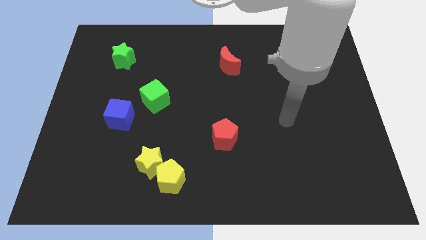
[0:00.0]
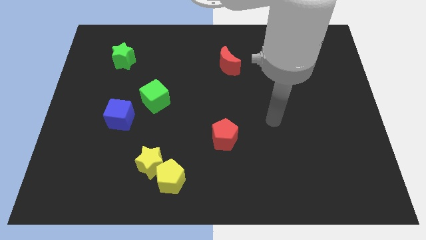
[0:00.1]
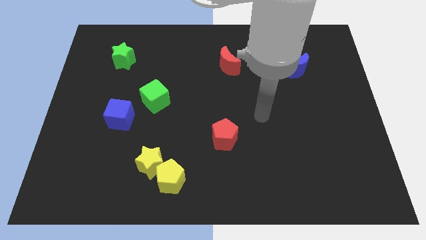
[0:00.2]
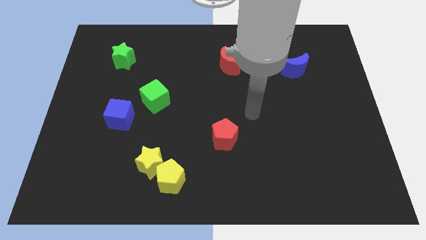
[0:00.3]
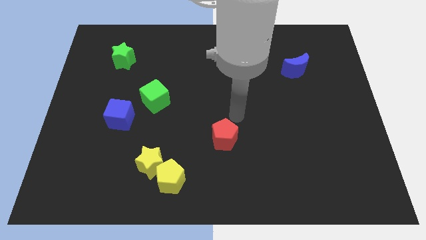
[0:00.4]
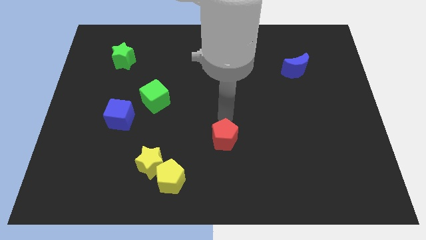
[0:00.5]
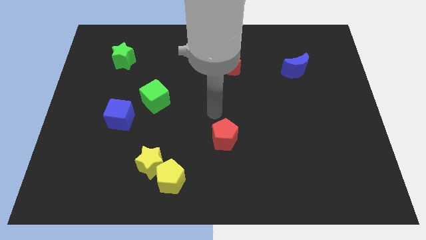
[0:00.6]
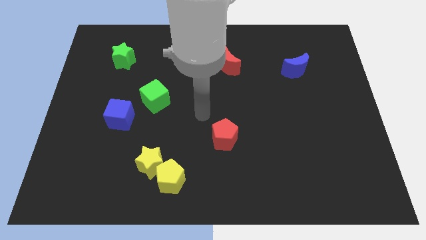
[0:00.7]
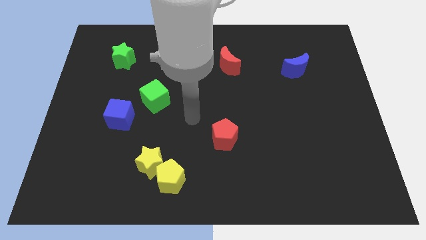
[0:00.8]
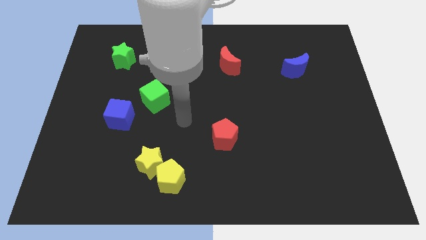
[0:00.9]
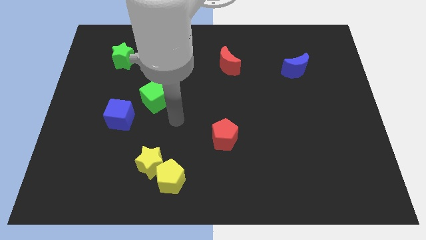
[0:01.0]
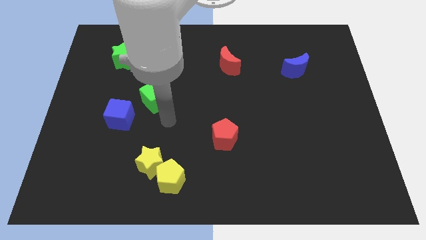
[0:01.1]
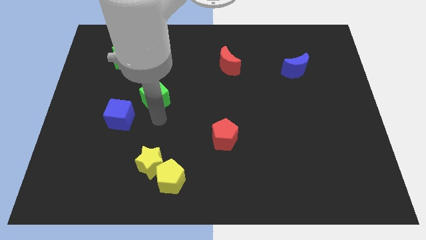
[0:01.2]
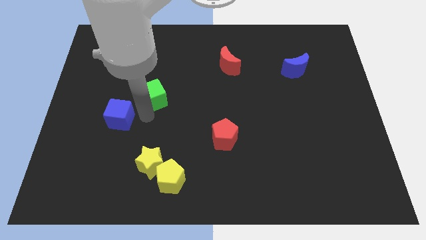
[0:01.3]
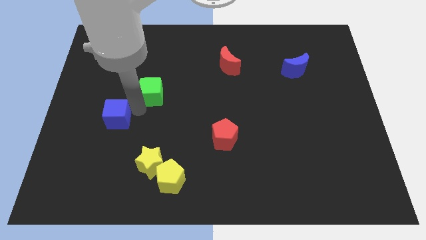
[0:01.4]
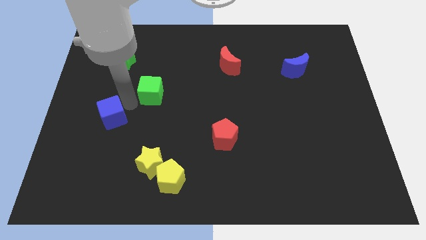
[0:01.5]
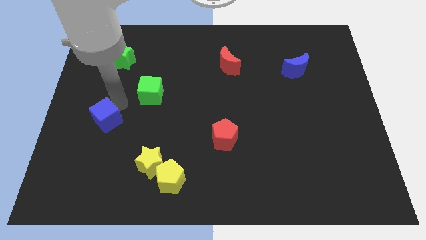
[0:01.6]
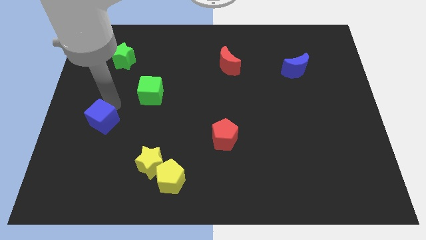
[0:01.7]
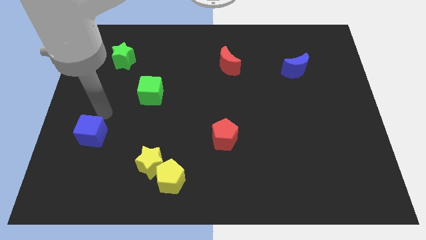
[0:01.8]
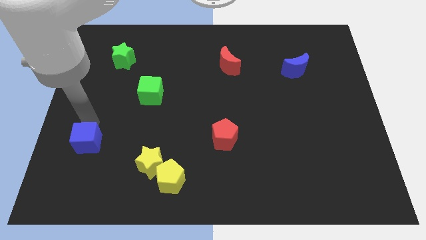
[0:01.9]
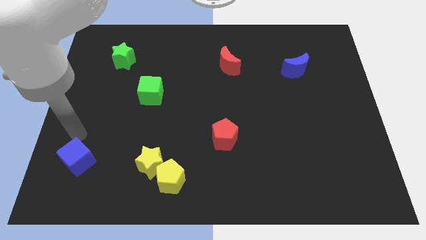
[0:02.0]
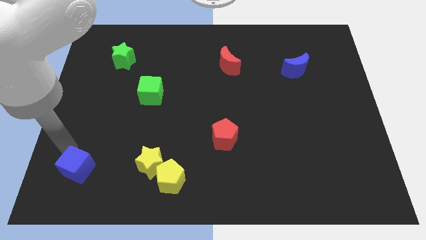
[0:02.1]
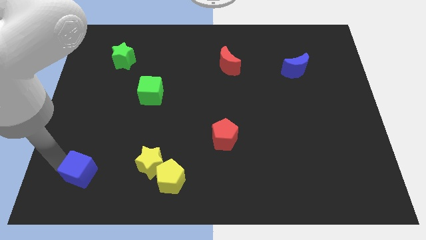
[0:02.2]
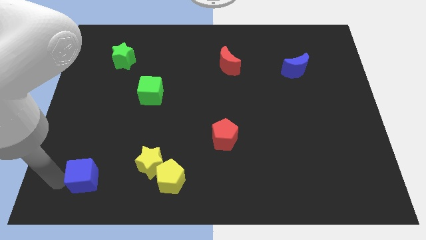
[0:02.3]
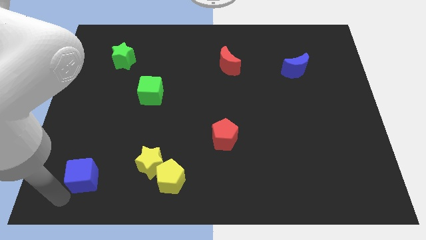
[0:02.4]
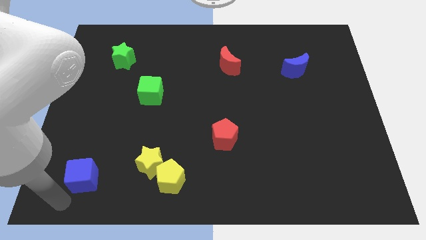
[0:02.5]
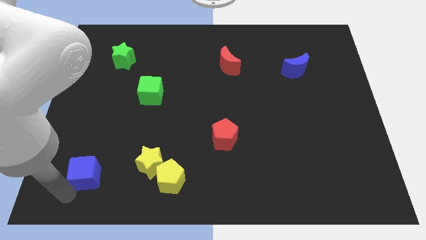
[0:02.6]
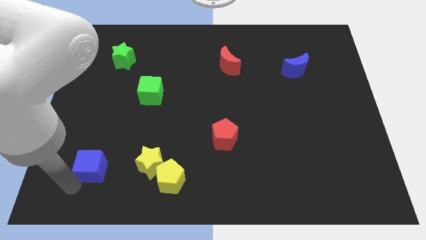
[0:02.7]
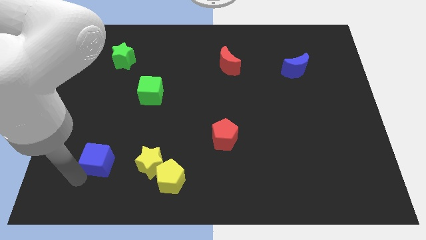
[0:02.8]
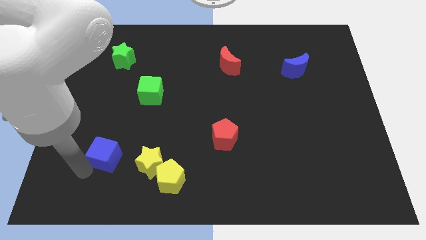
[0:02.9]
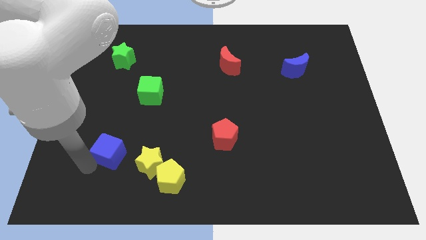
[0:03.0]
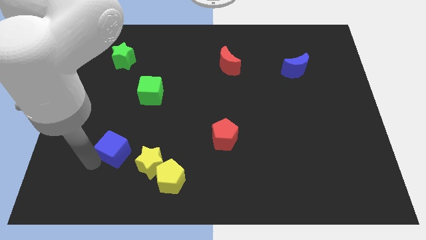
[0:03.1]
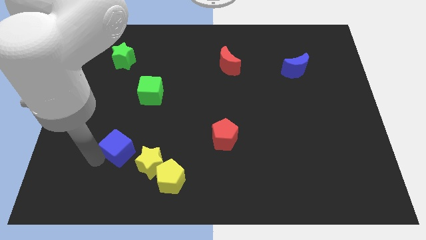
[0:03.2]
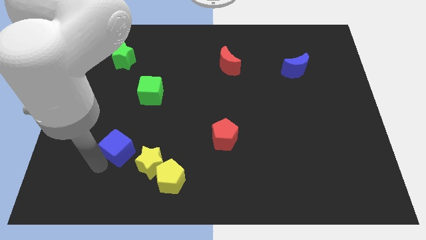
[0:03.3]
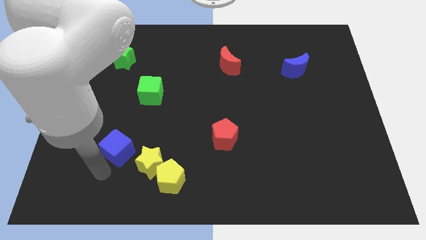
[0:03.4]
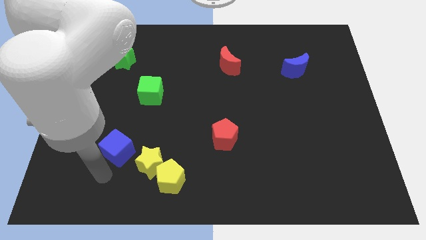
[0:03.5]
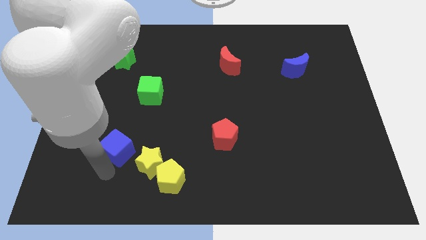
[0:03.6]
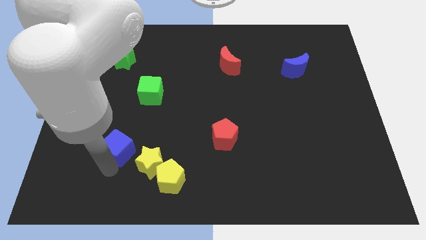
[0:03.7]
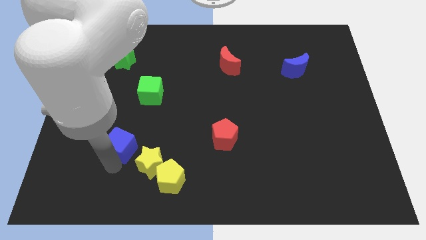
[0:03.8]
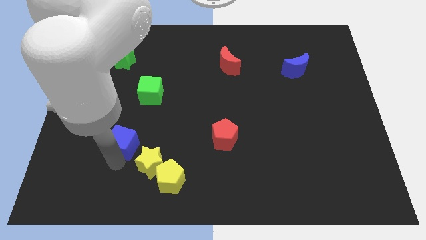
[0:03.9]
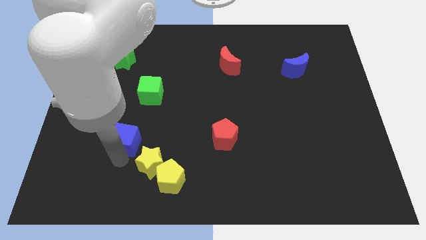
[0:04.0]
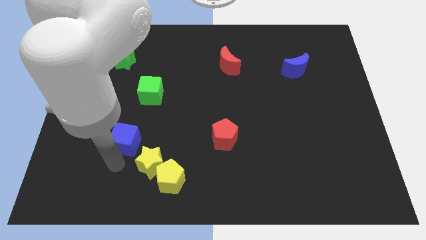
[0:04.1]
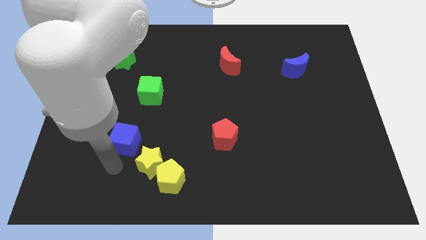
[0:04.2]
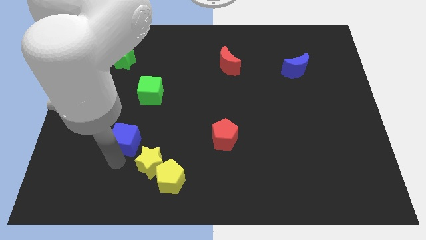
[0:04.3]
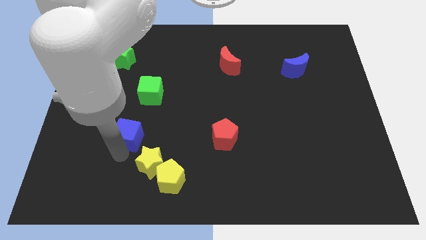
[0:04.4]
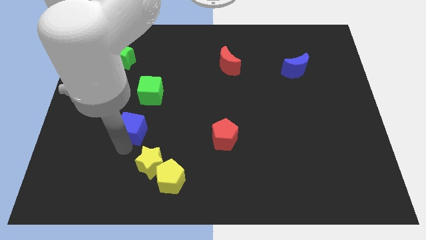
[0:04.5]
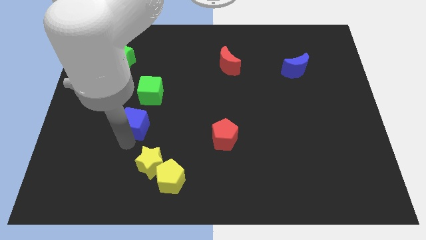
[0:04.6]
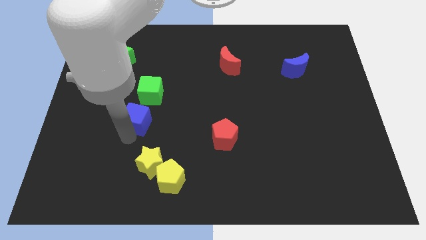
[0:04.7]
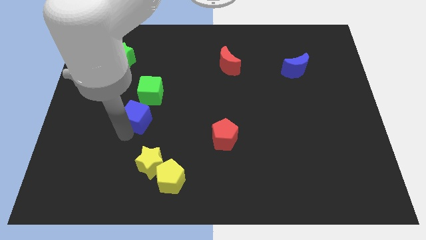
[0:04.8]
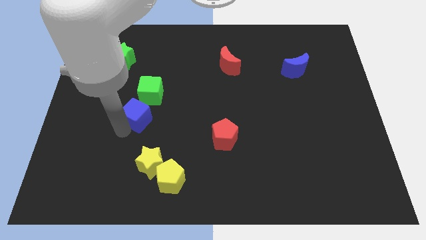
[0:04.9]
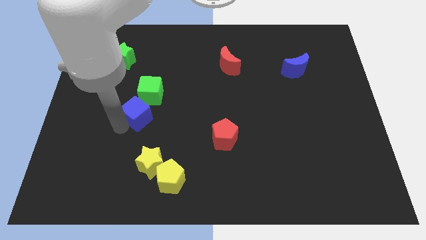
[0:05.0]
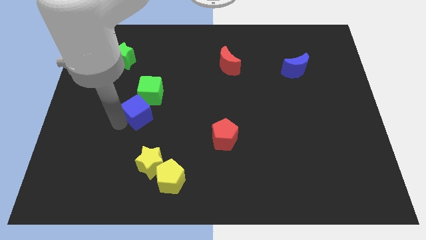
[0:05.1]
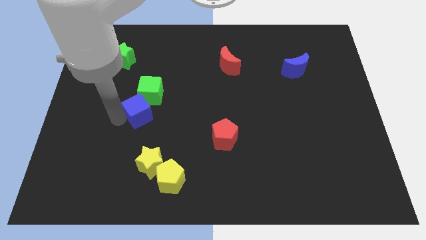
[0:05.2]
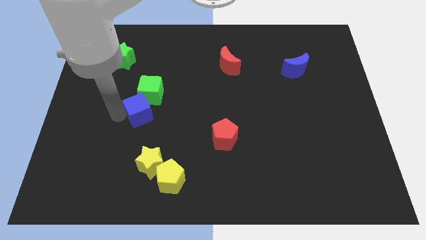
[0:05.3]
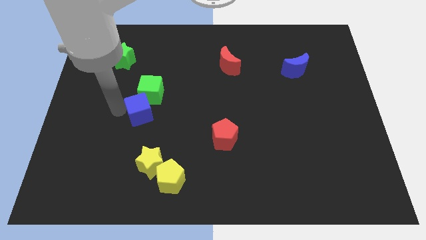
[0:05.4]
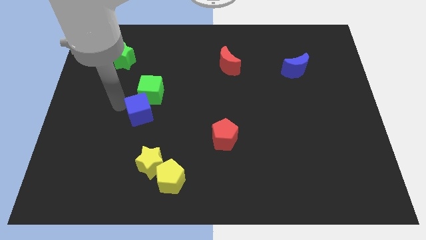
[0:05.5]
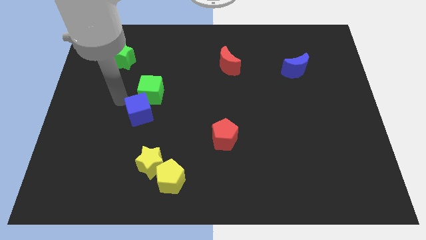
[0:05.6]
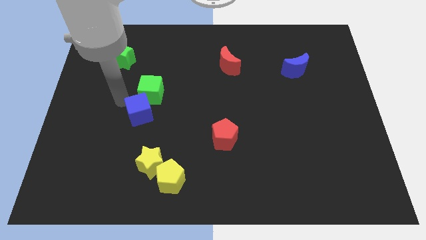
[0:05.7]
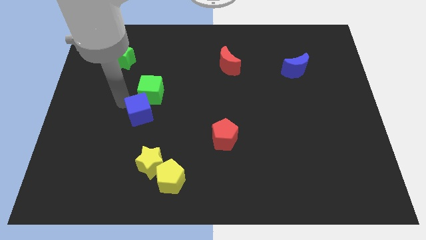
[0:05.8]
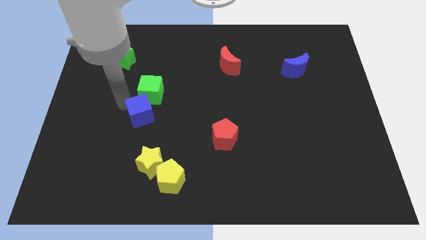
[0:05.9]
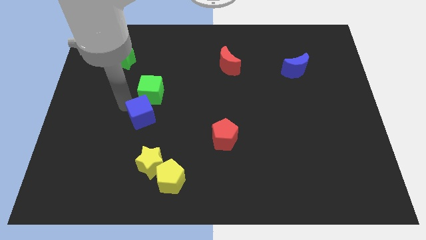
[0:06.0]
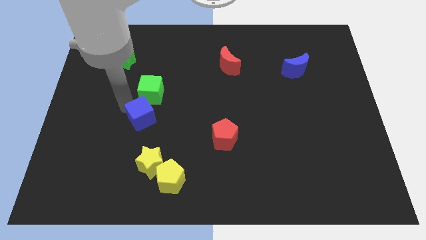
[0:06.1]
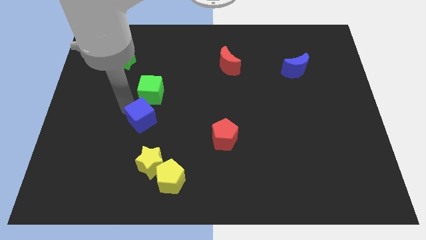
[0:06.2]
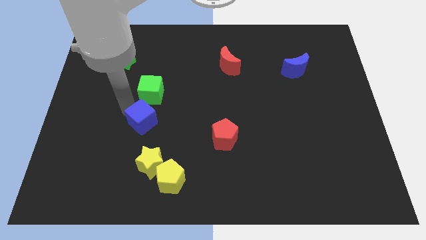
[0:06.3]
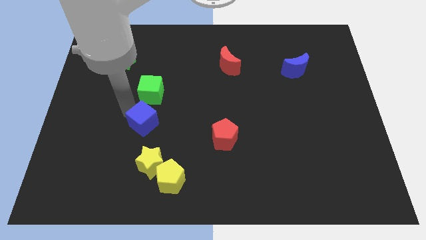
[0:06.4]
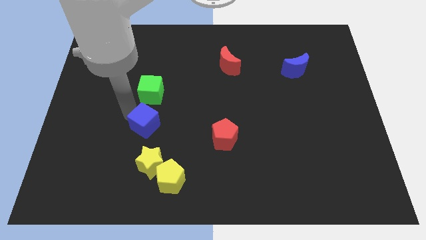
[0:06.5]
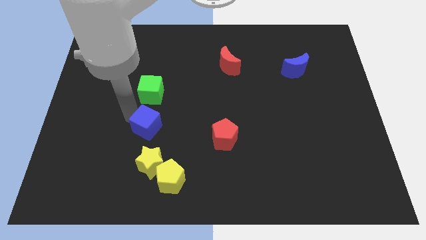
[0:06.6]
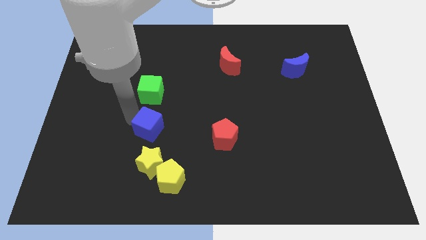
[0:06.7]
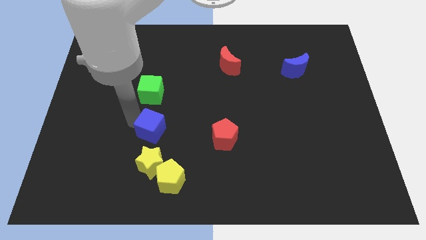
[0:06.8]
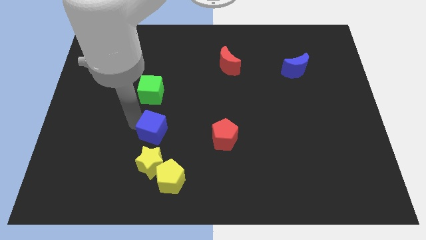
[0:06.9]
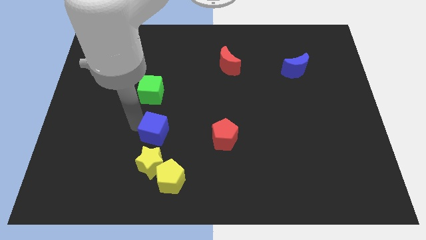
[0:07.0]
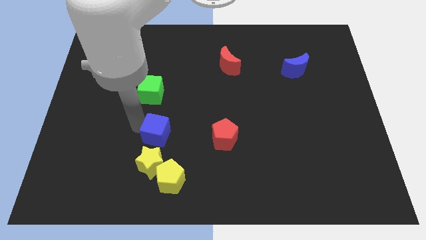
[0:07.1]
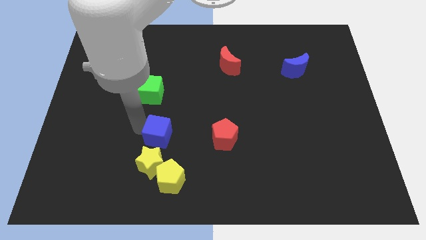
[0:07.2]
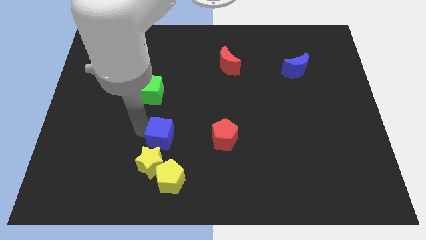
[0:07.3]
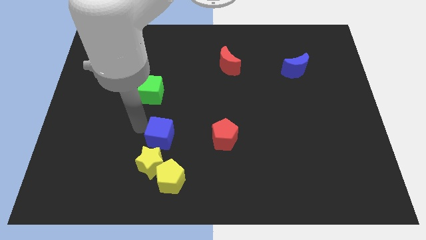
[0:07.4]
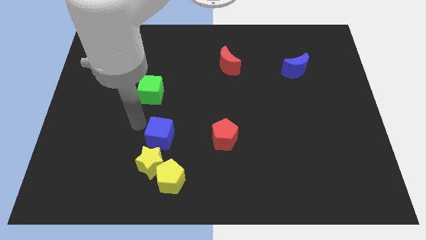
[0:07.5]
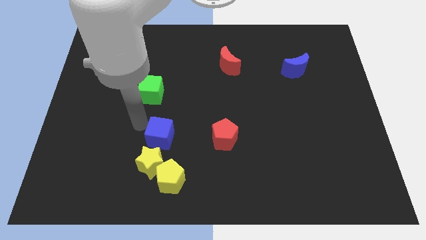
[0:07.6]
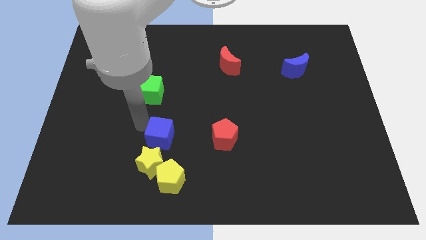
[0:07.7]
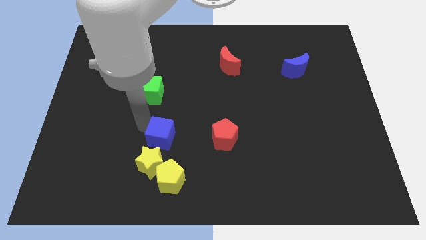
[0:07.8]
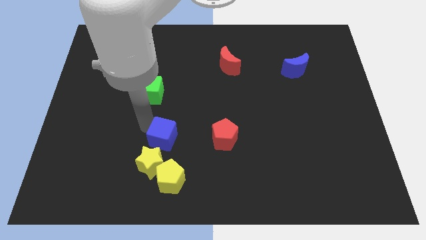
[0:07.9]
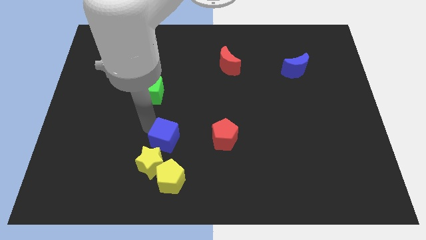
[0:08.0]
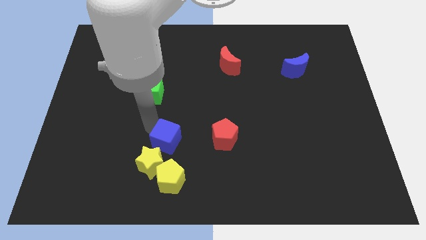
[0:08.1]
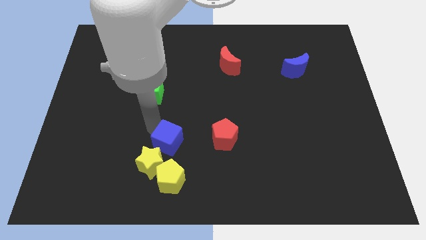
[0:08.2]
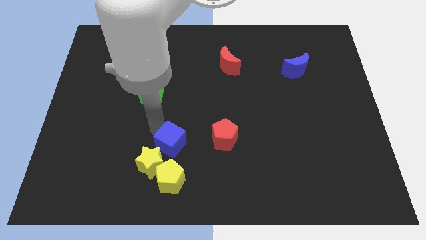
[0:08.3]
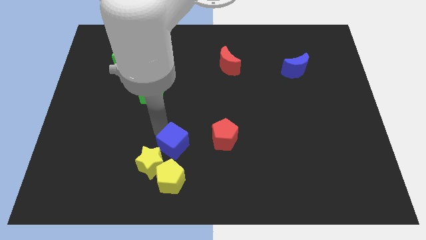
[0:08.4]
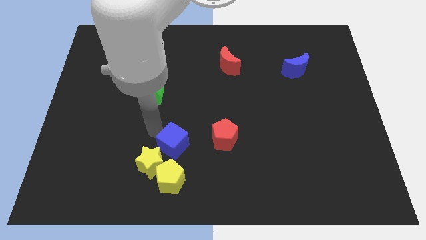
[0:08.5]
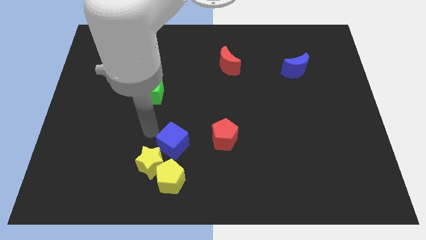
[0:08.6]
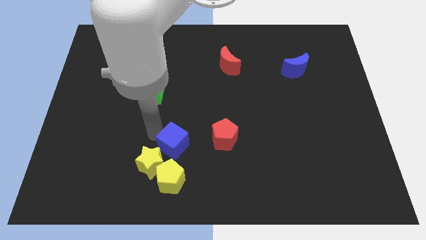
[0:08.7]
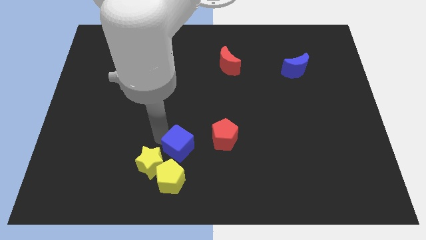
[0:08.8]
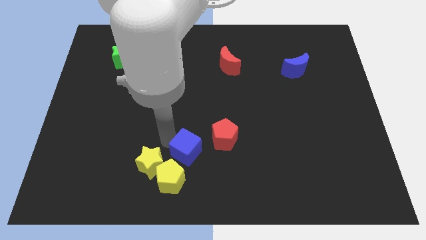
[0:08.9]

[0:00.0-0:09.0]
slide the blue cube diagonally down and to the left of the red pentagon
